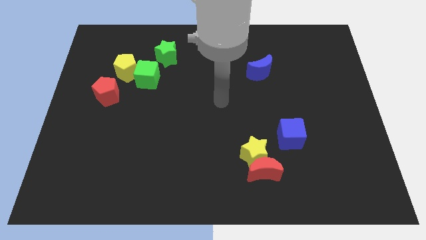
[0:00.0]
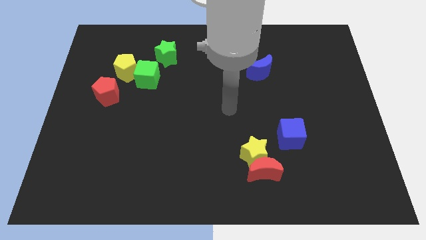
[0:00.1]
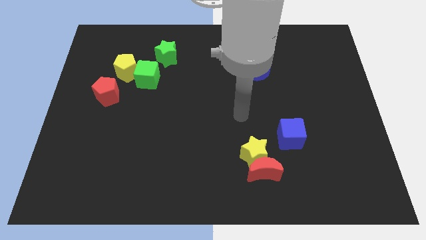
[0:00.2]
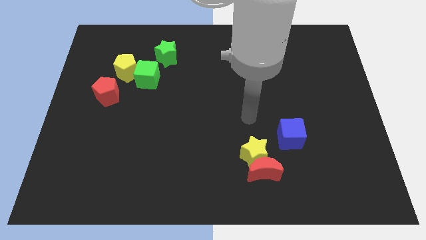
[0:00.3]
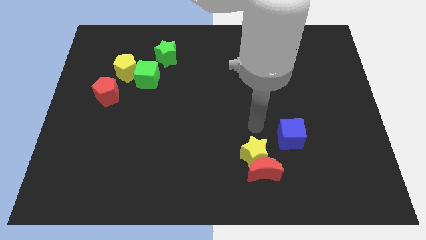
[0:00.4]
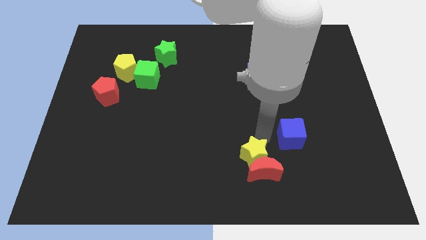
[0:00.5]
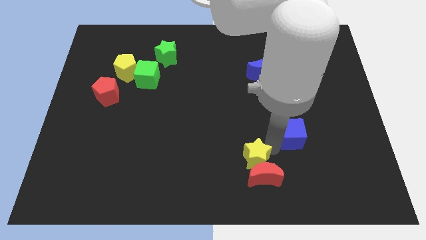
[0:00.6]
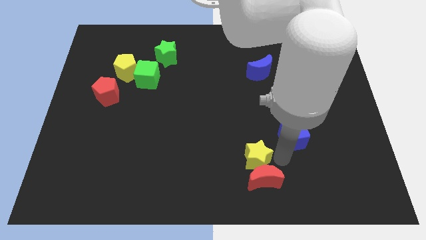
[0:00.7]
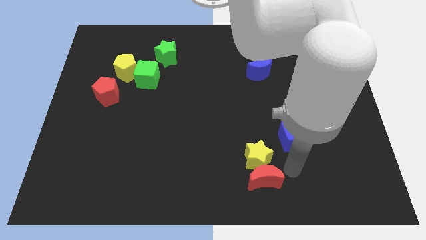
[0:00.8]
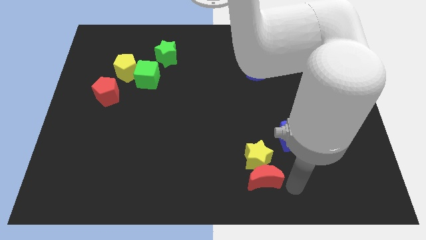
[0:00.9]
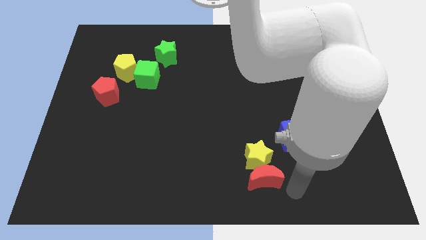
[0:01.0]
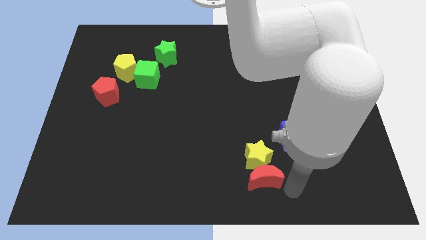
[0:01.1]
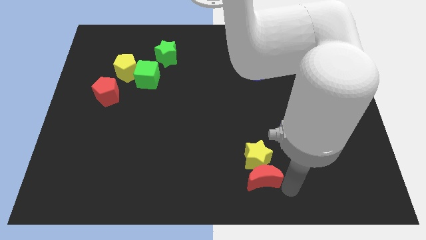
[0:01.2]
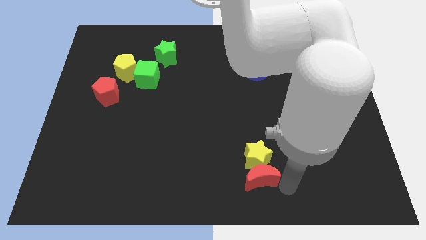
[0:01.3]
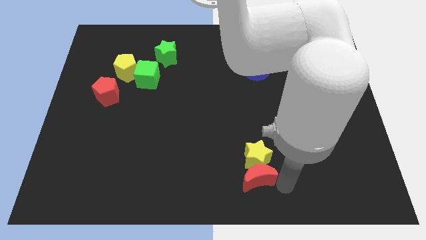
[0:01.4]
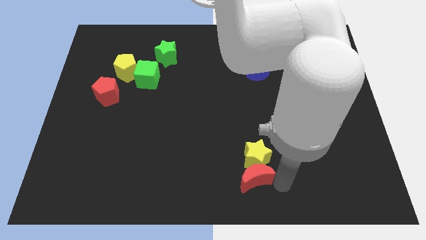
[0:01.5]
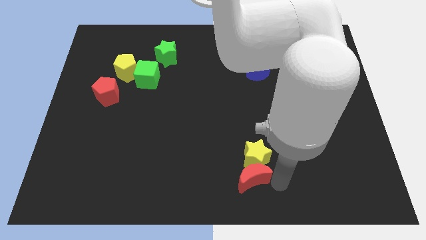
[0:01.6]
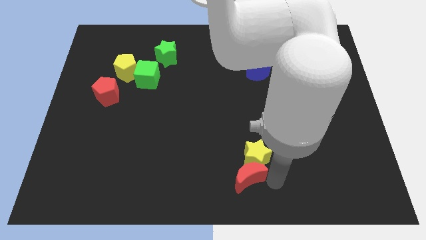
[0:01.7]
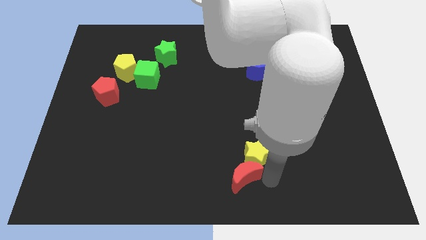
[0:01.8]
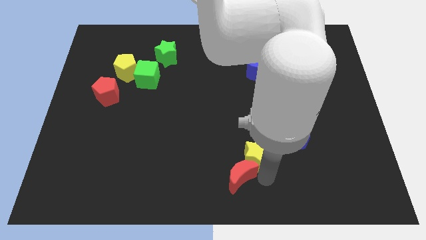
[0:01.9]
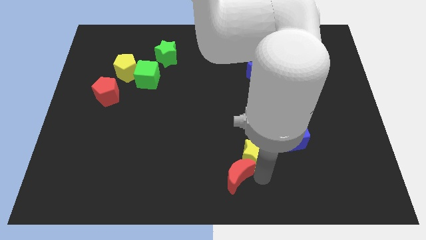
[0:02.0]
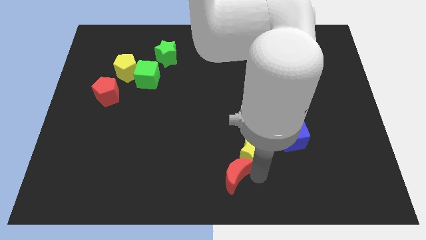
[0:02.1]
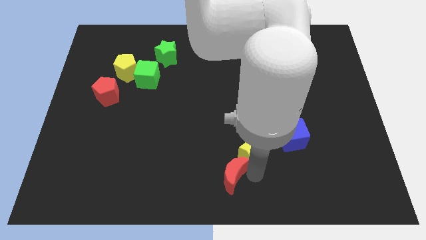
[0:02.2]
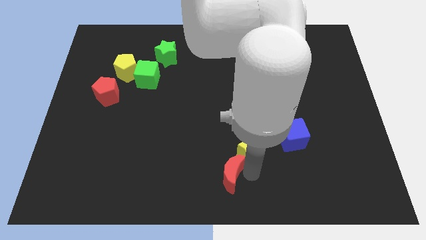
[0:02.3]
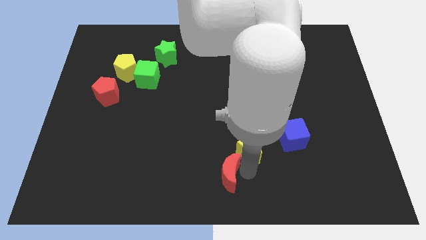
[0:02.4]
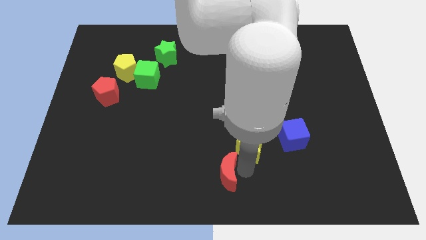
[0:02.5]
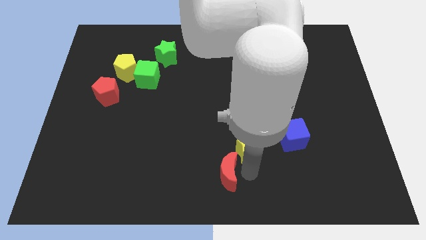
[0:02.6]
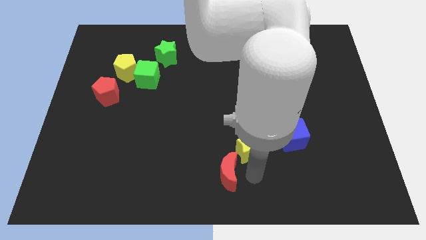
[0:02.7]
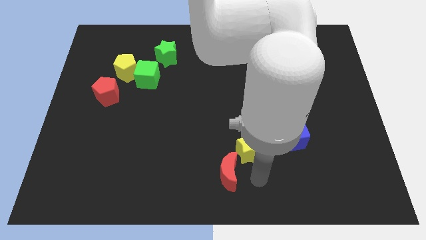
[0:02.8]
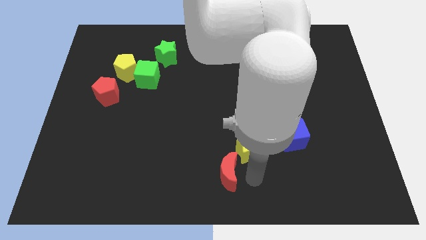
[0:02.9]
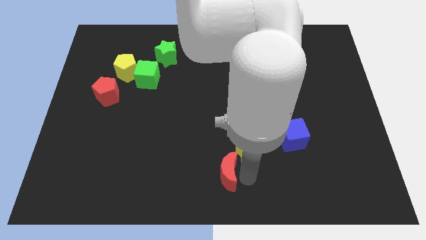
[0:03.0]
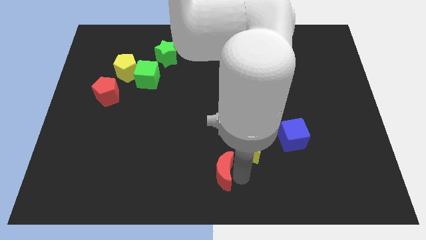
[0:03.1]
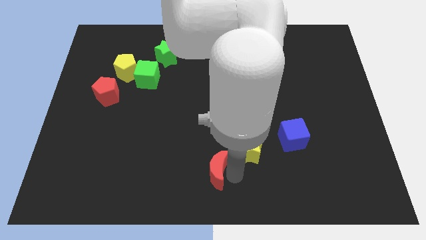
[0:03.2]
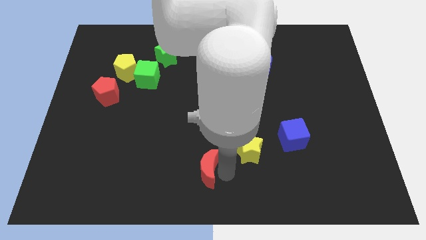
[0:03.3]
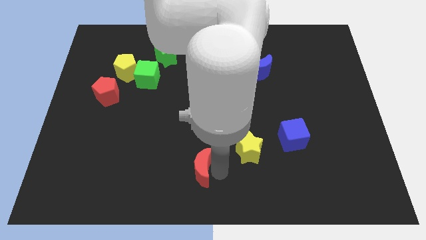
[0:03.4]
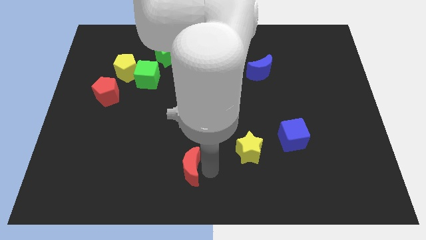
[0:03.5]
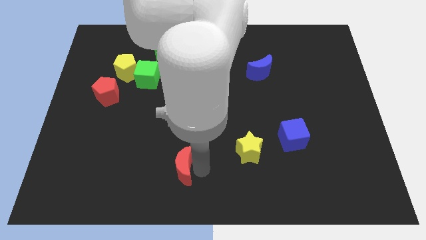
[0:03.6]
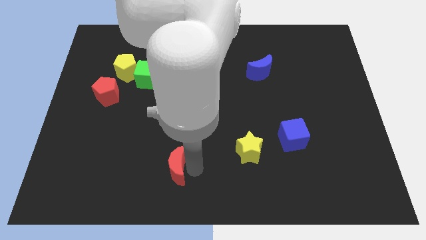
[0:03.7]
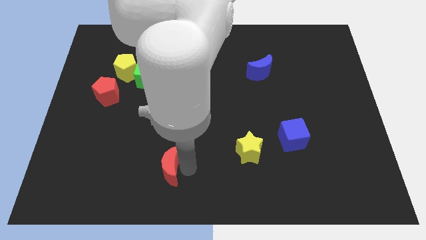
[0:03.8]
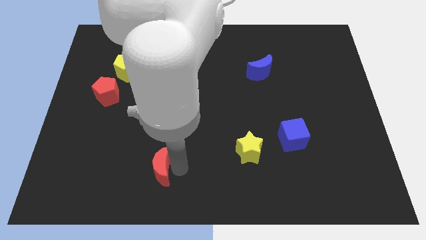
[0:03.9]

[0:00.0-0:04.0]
push the red moon to the left

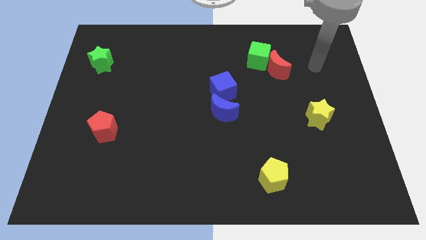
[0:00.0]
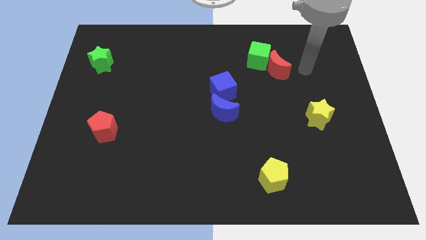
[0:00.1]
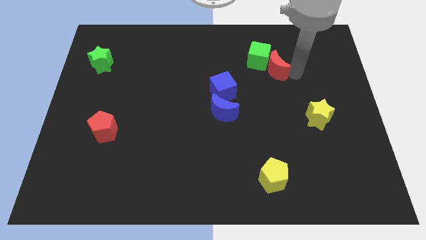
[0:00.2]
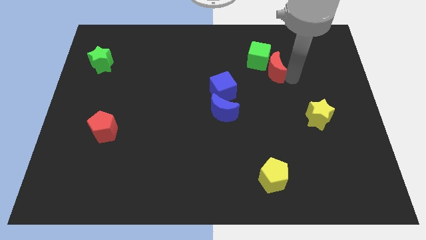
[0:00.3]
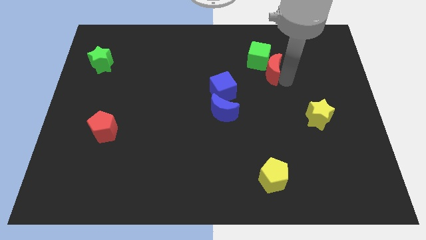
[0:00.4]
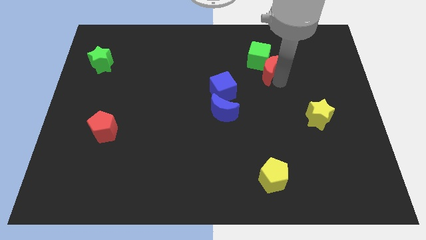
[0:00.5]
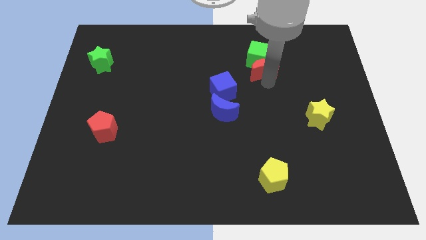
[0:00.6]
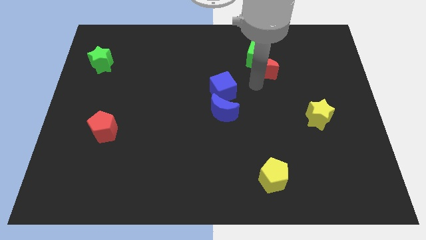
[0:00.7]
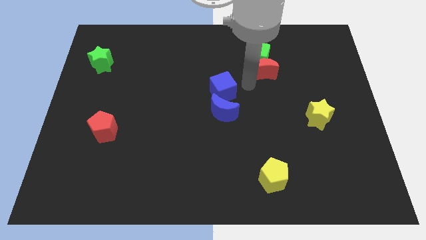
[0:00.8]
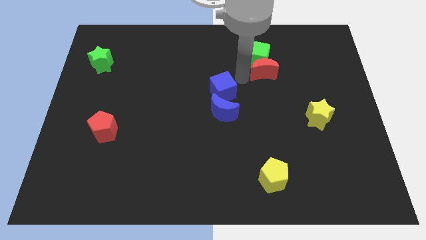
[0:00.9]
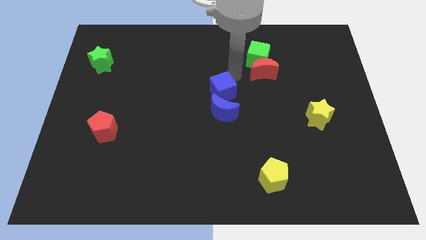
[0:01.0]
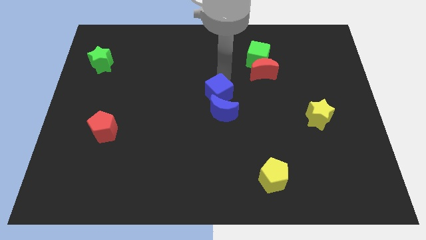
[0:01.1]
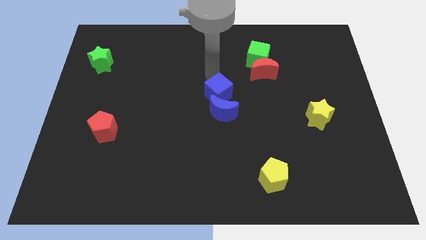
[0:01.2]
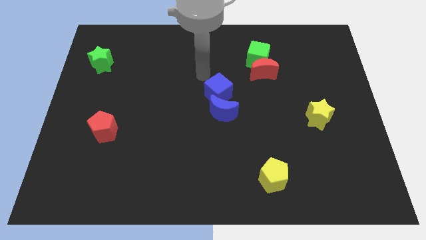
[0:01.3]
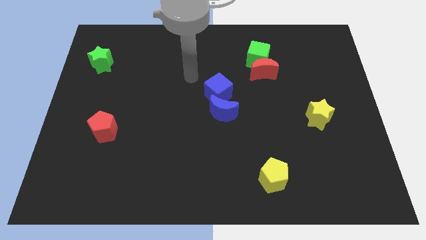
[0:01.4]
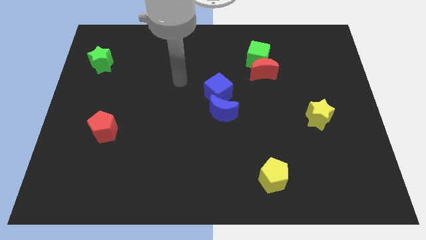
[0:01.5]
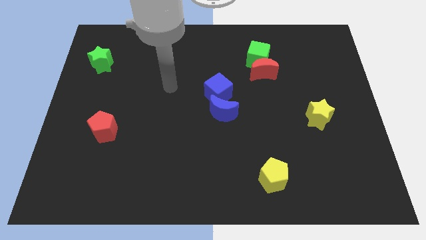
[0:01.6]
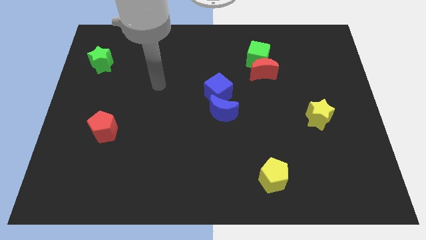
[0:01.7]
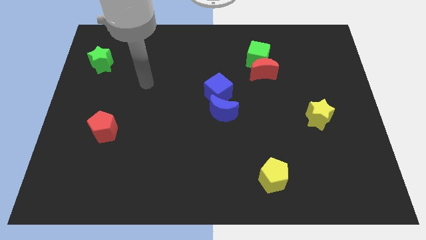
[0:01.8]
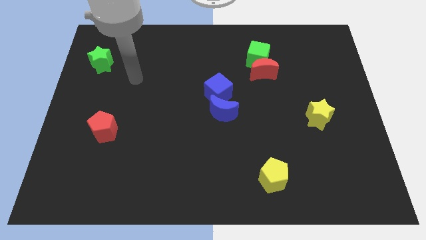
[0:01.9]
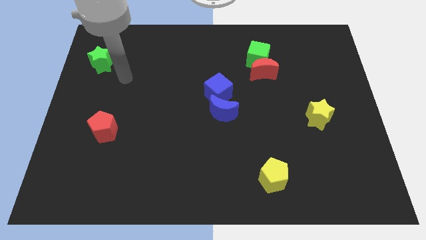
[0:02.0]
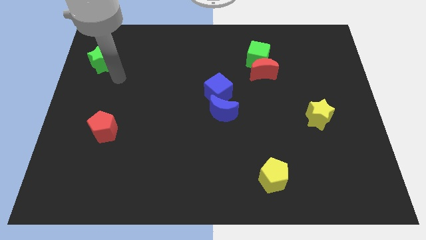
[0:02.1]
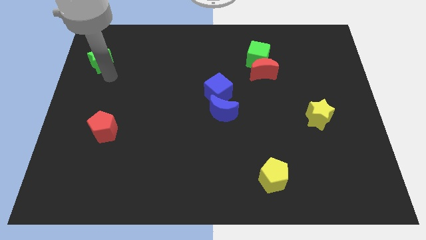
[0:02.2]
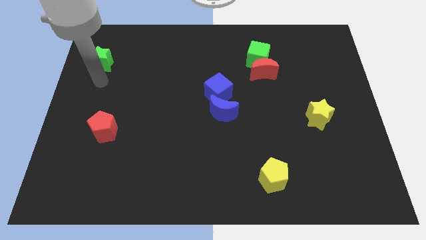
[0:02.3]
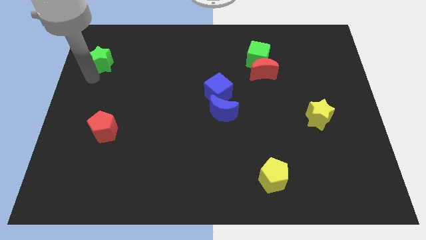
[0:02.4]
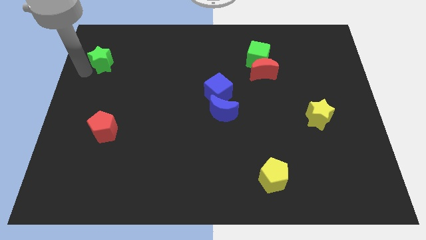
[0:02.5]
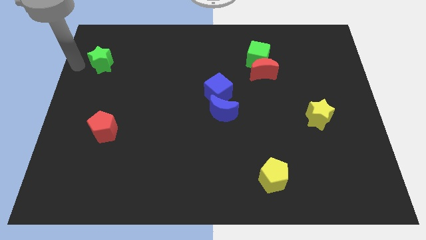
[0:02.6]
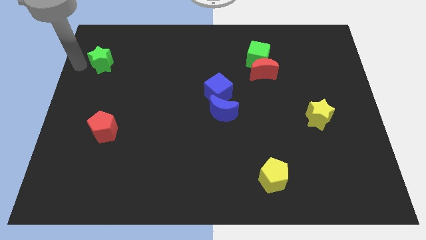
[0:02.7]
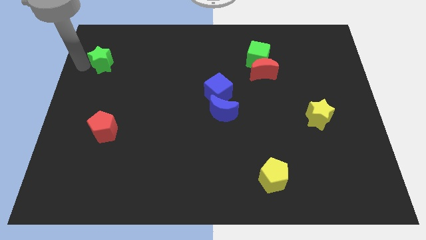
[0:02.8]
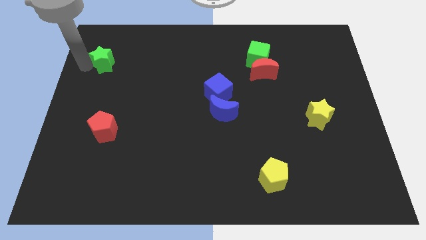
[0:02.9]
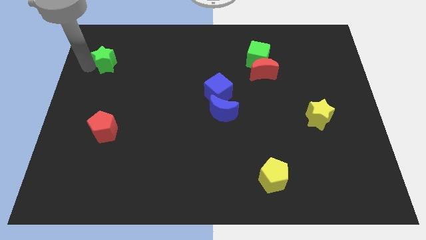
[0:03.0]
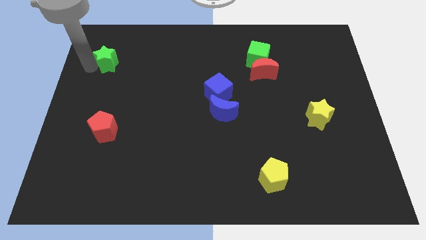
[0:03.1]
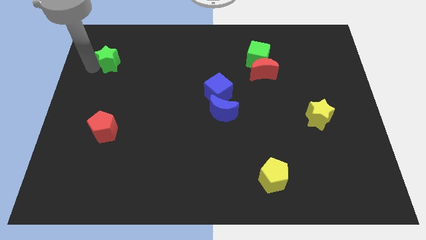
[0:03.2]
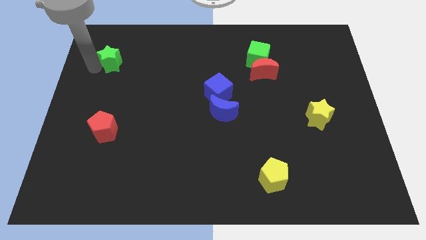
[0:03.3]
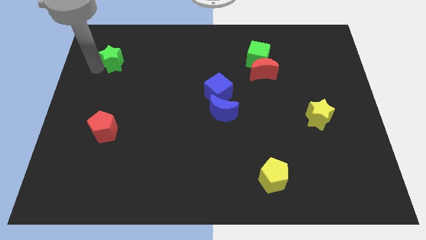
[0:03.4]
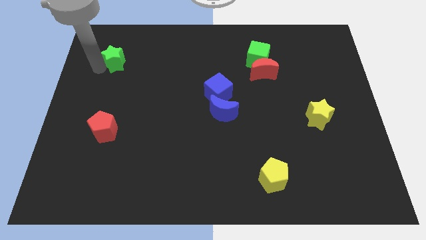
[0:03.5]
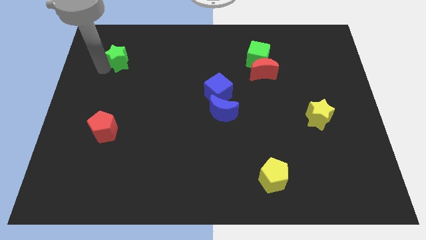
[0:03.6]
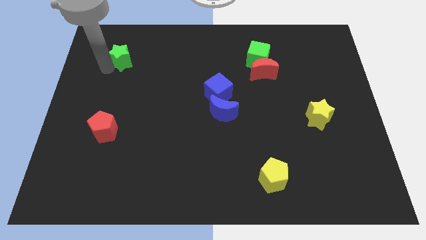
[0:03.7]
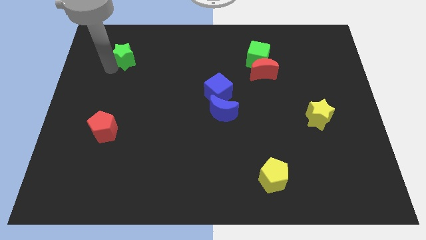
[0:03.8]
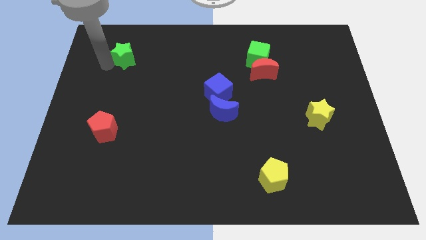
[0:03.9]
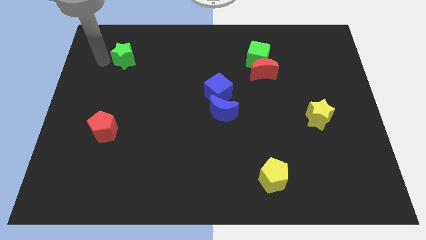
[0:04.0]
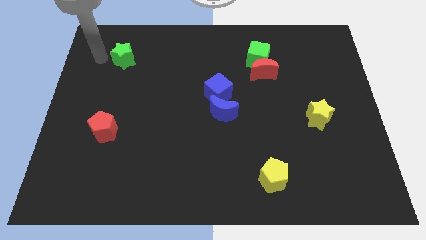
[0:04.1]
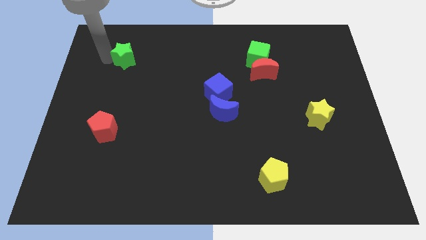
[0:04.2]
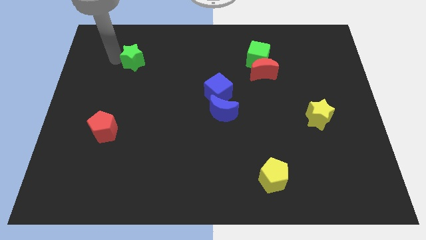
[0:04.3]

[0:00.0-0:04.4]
slide the green star to the right somewhat
